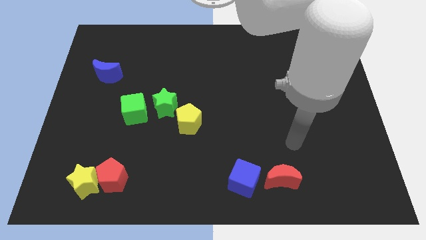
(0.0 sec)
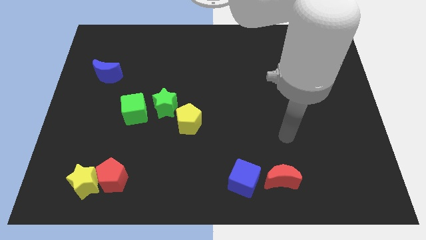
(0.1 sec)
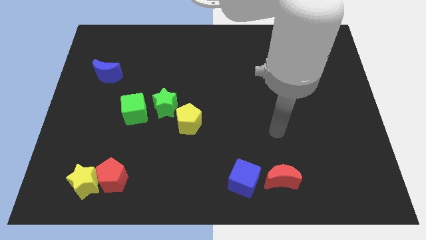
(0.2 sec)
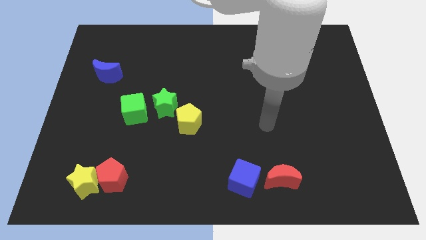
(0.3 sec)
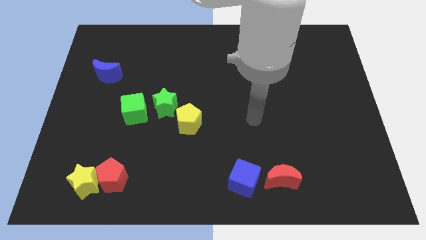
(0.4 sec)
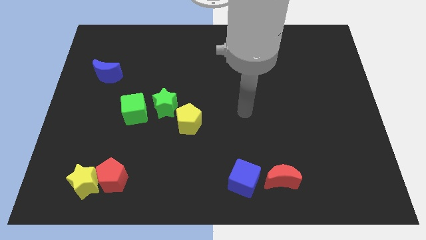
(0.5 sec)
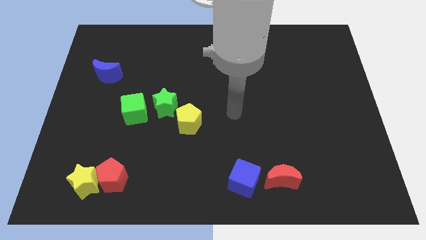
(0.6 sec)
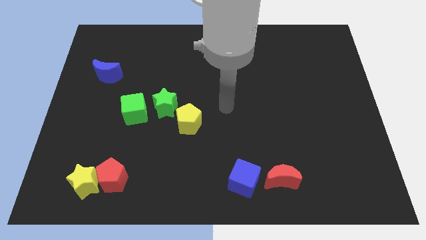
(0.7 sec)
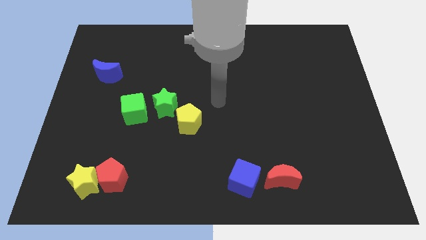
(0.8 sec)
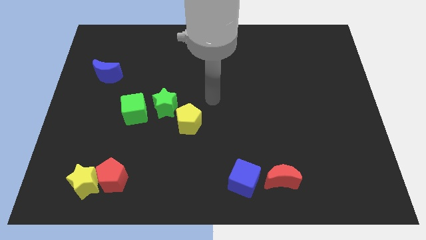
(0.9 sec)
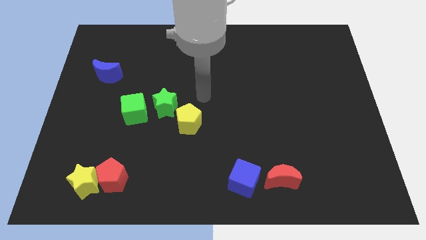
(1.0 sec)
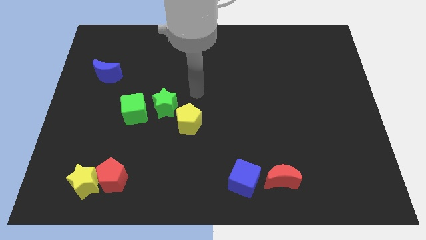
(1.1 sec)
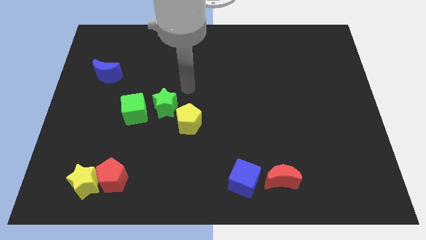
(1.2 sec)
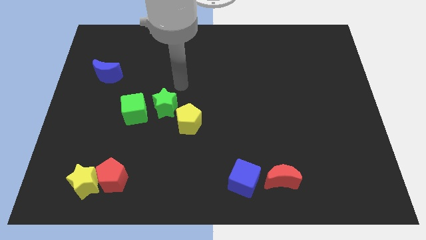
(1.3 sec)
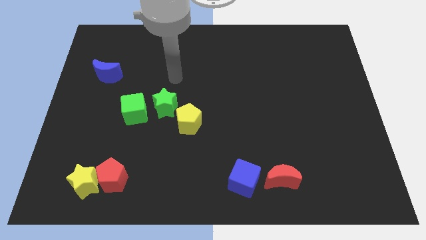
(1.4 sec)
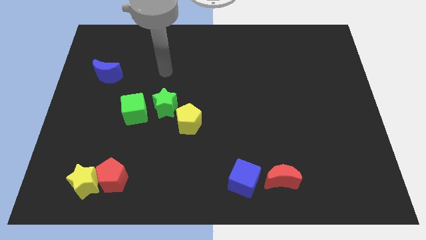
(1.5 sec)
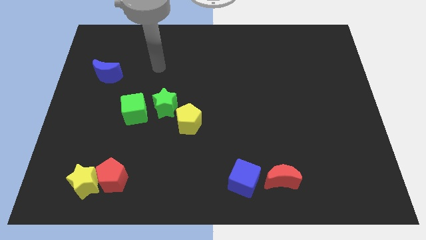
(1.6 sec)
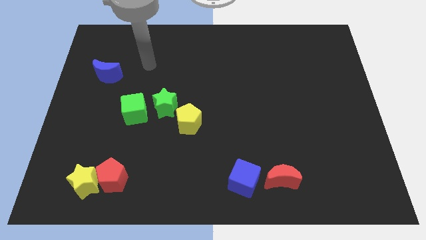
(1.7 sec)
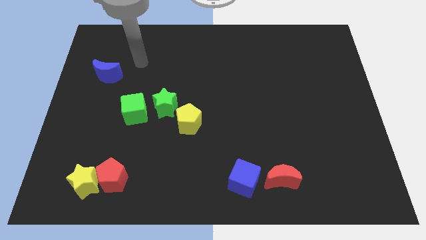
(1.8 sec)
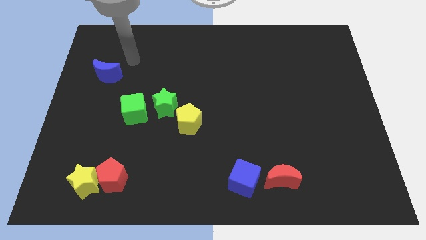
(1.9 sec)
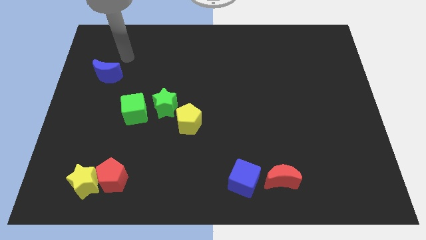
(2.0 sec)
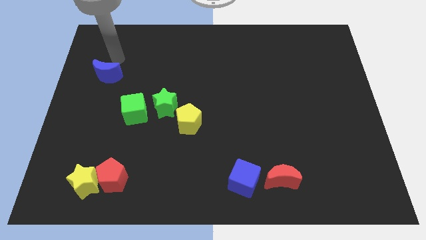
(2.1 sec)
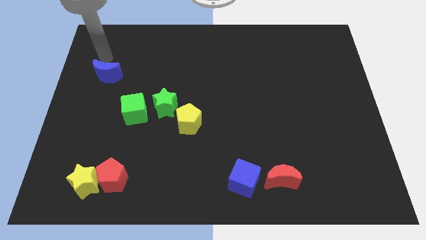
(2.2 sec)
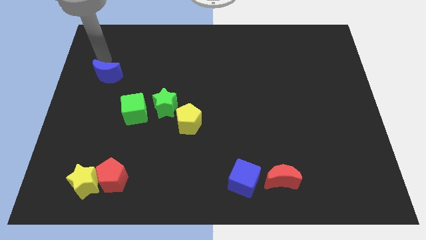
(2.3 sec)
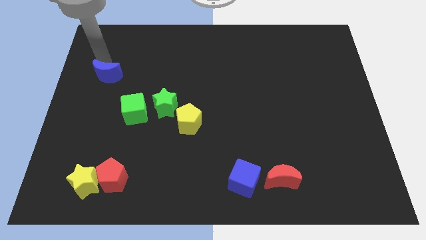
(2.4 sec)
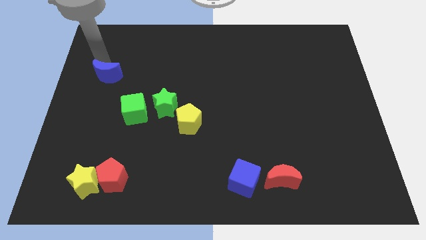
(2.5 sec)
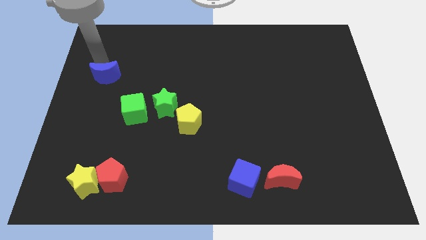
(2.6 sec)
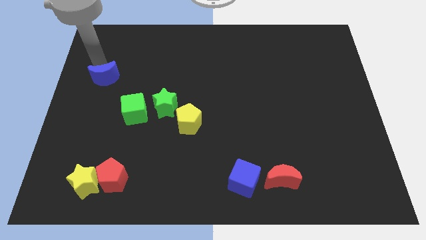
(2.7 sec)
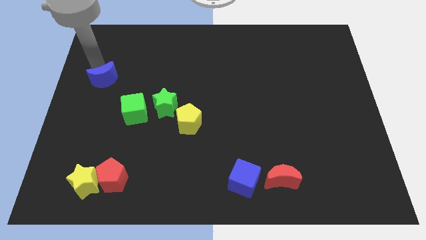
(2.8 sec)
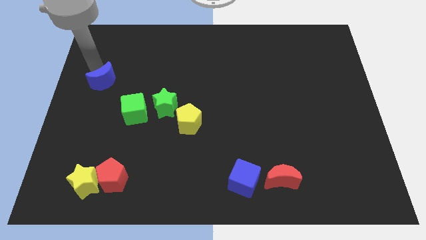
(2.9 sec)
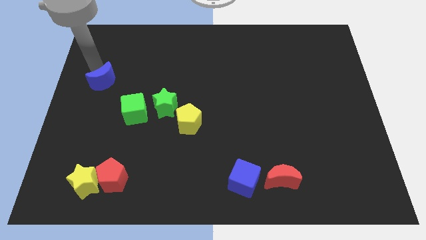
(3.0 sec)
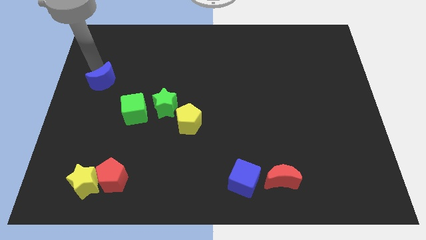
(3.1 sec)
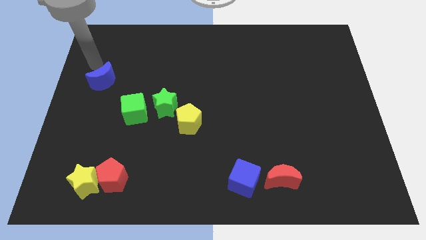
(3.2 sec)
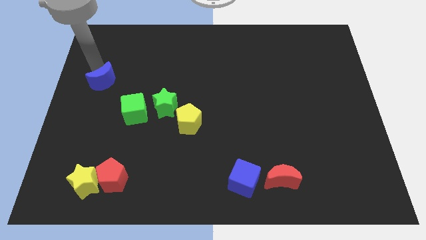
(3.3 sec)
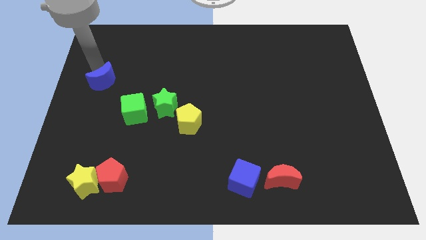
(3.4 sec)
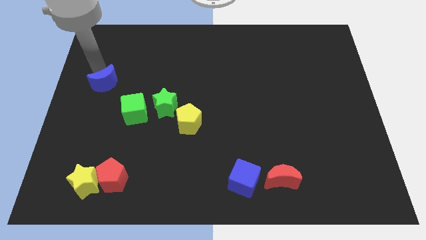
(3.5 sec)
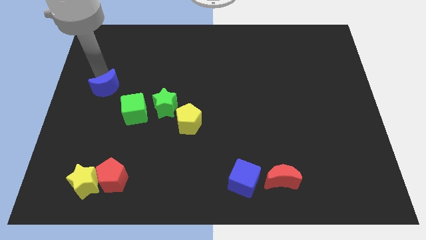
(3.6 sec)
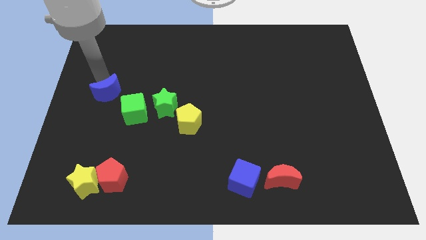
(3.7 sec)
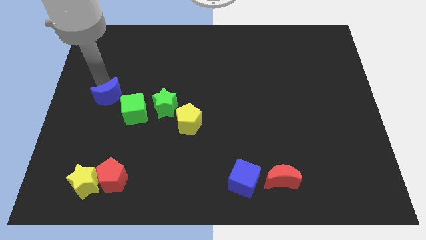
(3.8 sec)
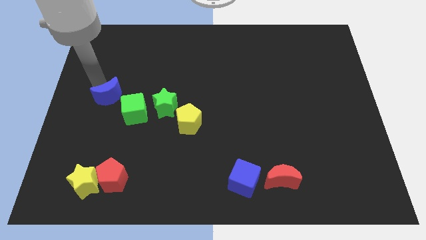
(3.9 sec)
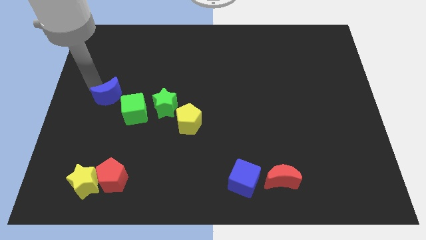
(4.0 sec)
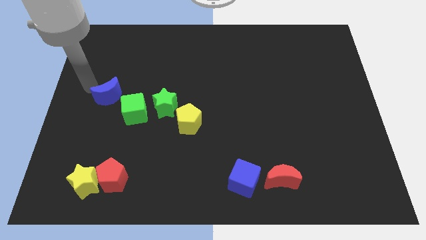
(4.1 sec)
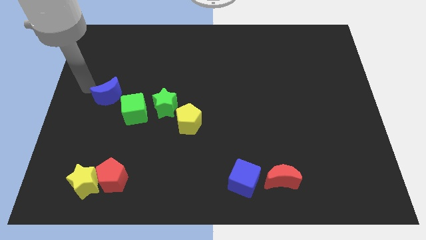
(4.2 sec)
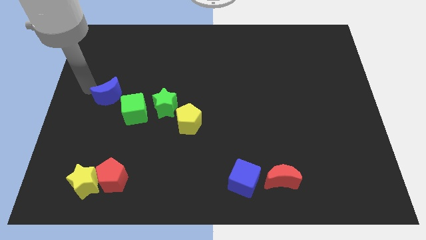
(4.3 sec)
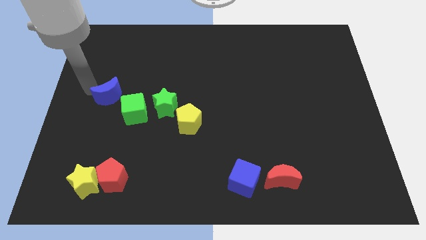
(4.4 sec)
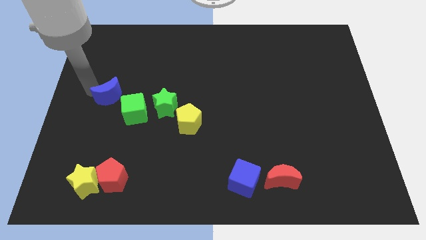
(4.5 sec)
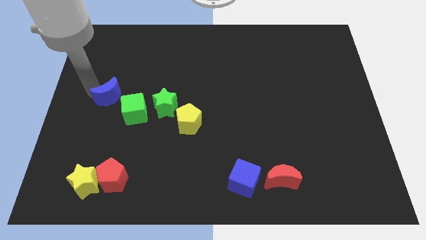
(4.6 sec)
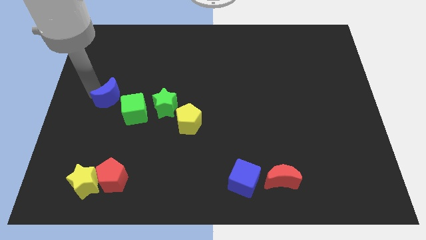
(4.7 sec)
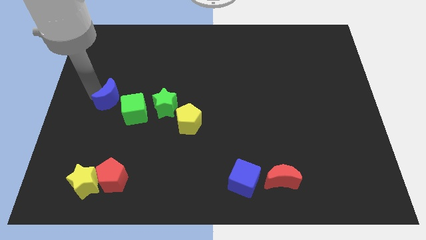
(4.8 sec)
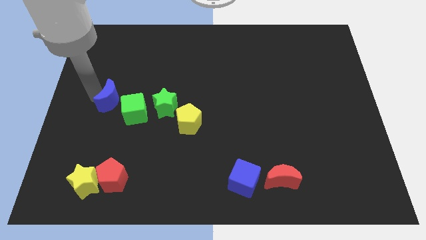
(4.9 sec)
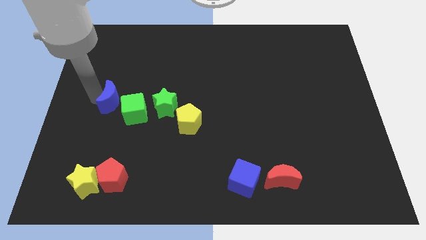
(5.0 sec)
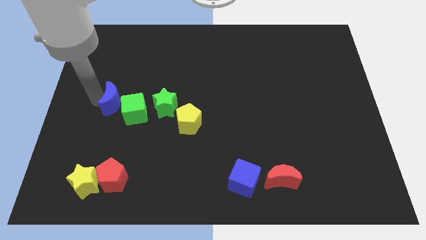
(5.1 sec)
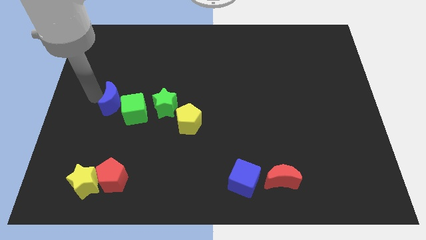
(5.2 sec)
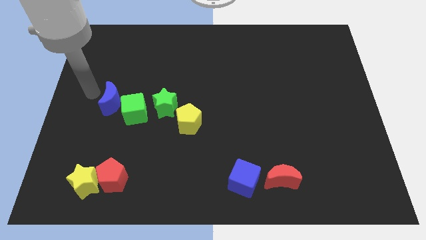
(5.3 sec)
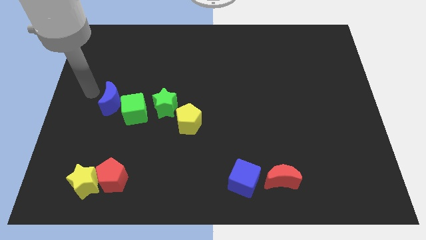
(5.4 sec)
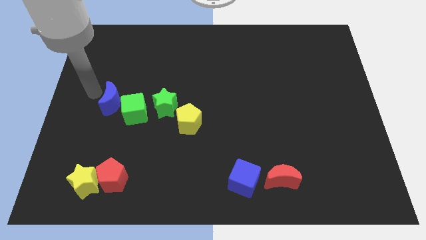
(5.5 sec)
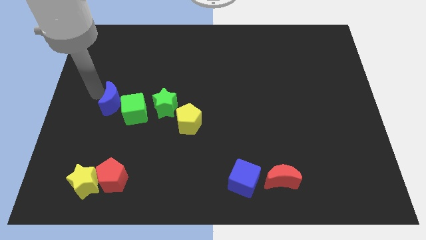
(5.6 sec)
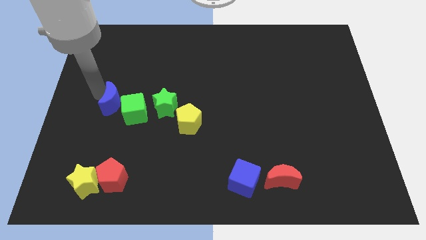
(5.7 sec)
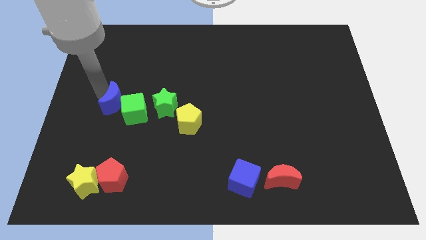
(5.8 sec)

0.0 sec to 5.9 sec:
slide the blue moon next to the green cube
